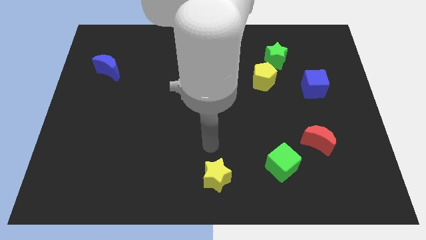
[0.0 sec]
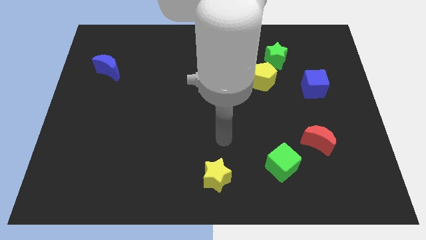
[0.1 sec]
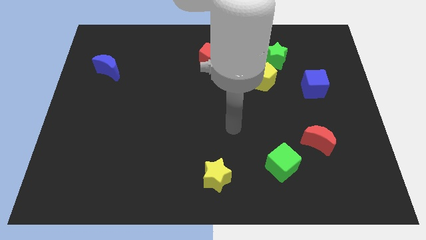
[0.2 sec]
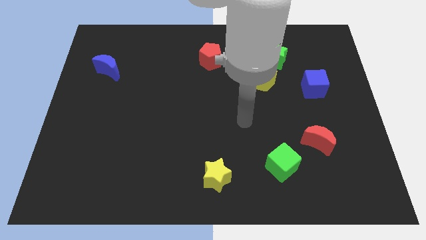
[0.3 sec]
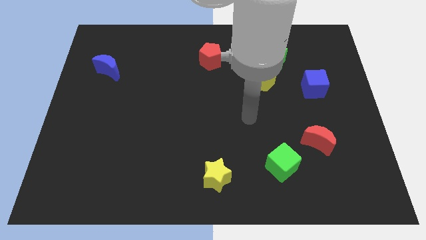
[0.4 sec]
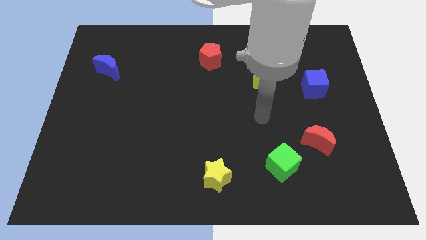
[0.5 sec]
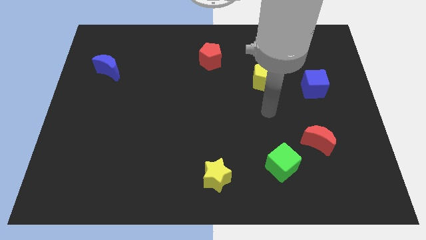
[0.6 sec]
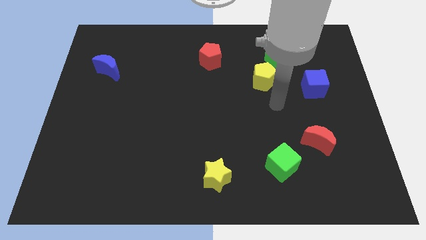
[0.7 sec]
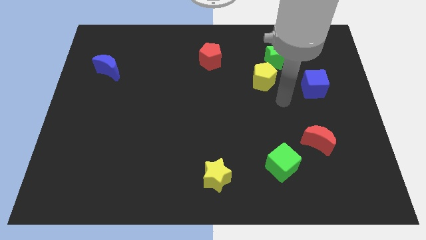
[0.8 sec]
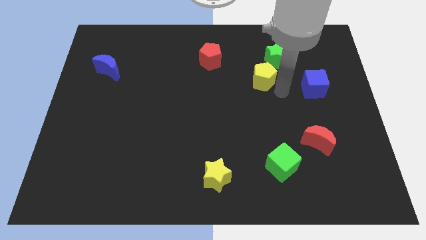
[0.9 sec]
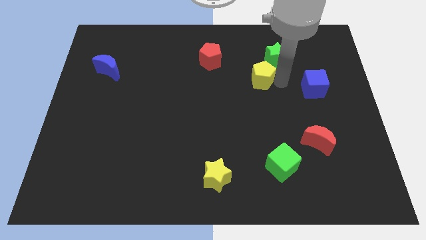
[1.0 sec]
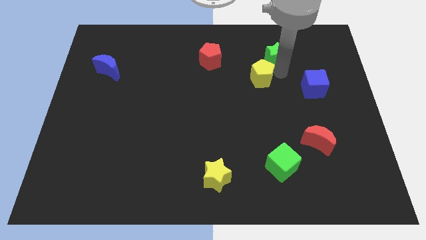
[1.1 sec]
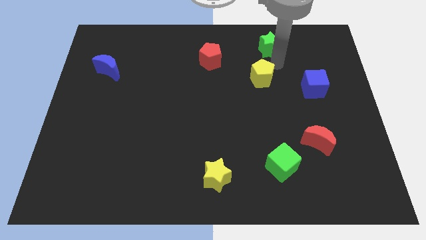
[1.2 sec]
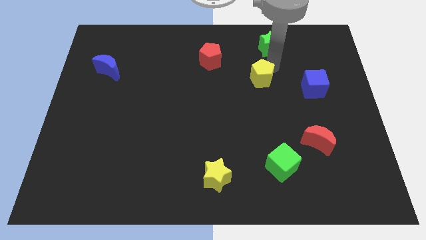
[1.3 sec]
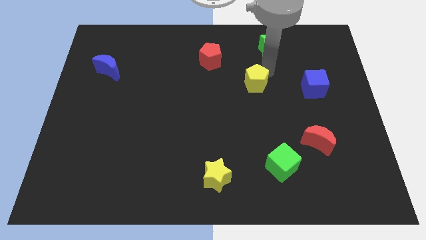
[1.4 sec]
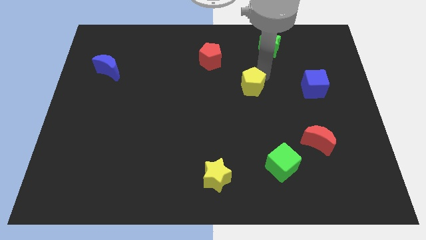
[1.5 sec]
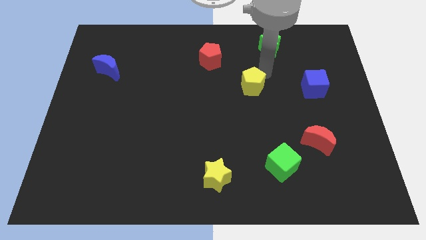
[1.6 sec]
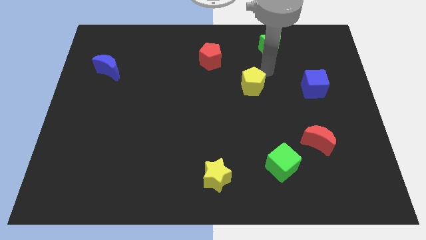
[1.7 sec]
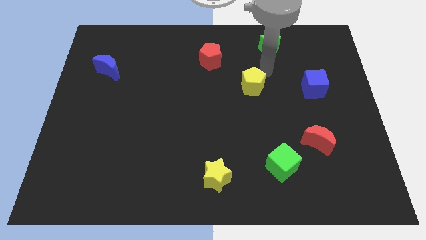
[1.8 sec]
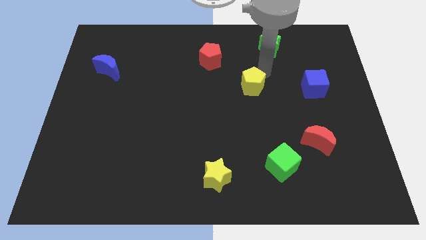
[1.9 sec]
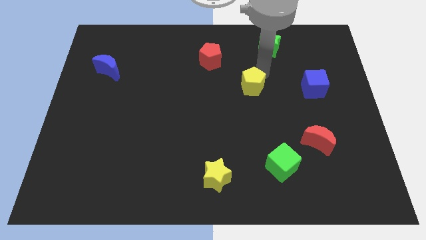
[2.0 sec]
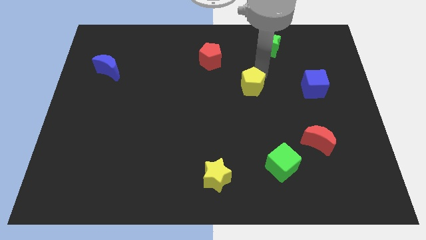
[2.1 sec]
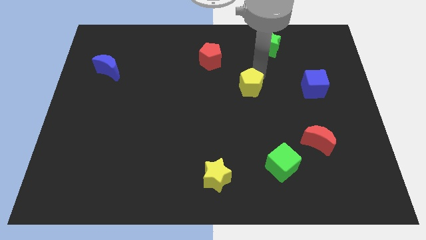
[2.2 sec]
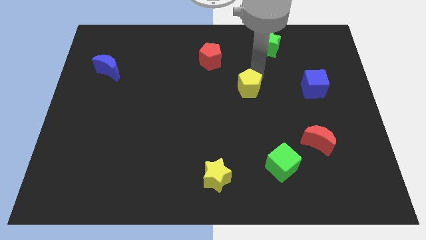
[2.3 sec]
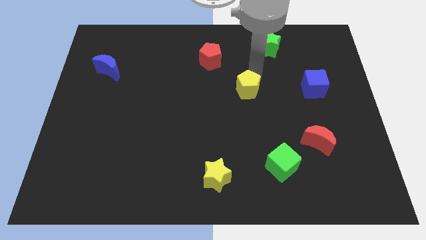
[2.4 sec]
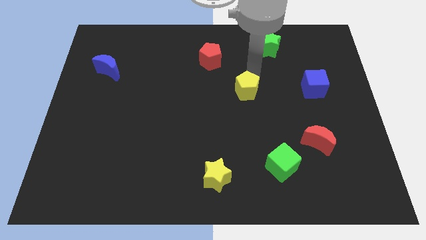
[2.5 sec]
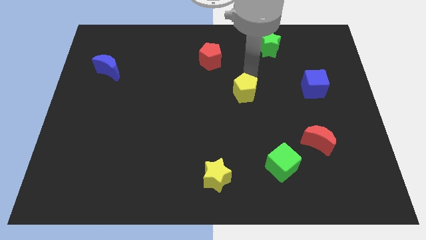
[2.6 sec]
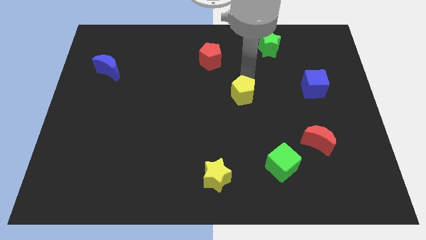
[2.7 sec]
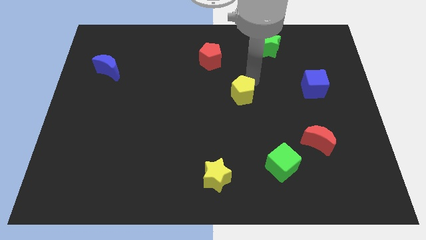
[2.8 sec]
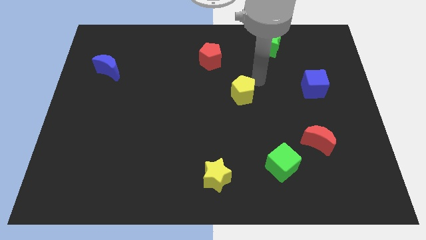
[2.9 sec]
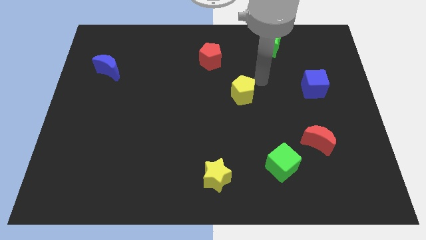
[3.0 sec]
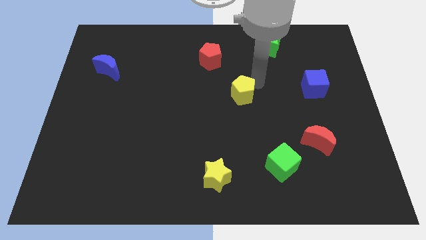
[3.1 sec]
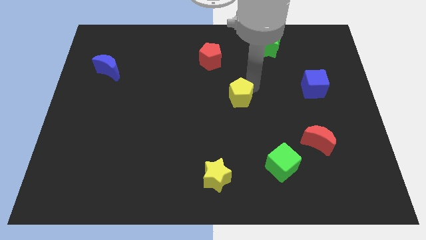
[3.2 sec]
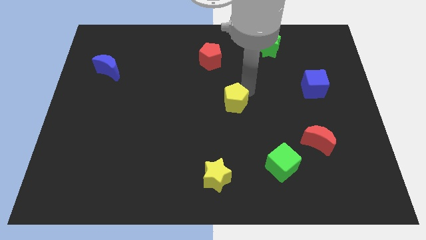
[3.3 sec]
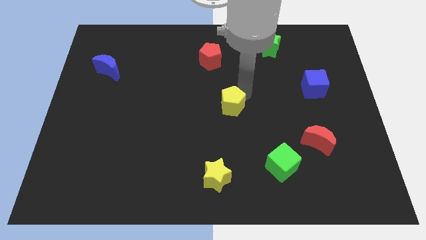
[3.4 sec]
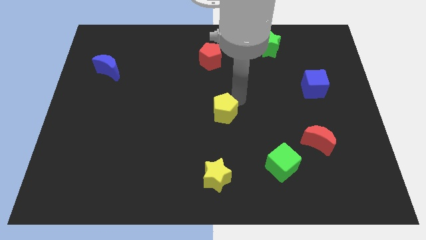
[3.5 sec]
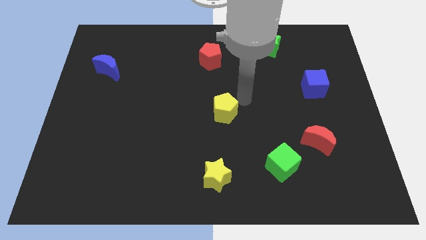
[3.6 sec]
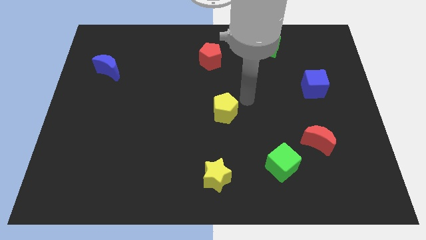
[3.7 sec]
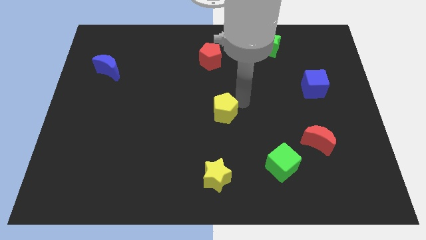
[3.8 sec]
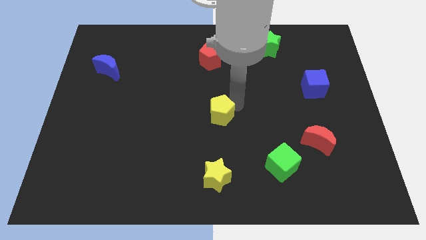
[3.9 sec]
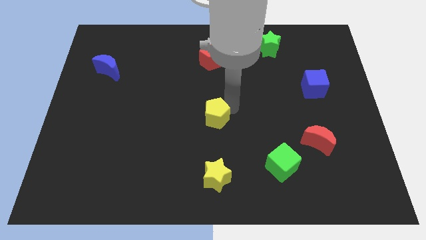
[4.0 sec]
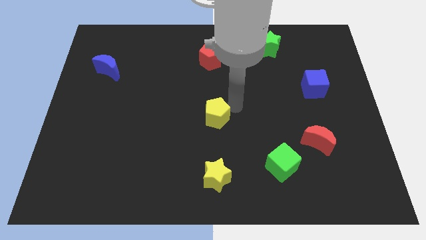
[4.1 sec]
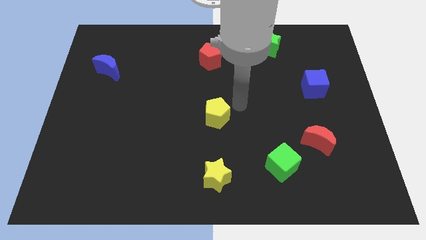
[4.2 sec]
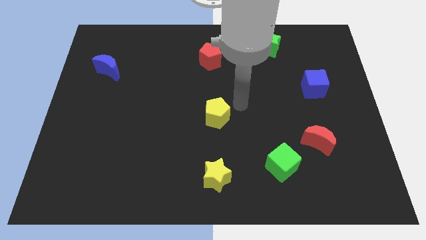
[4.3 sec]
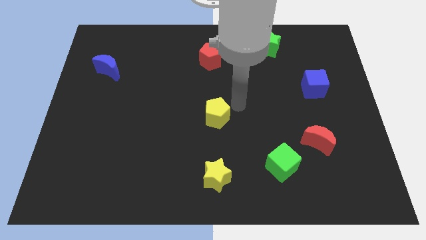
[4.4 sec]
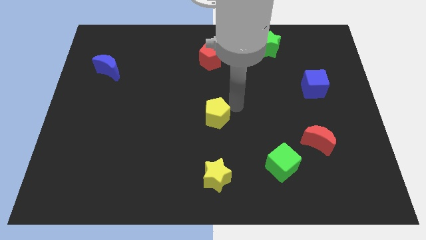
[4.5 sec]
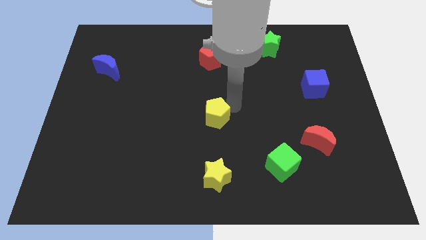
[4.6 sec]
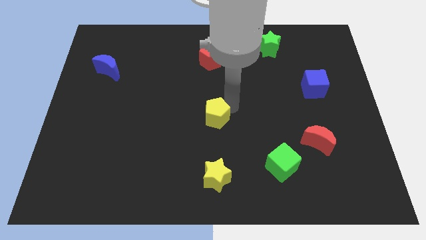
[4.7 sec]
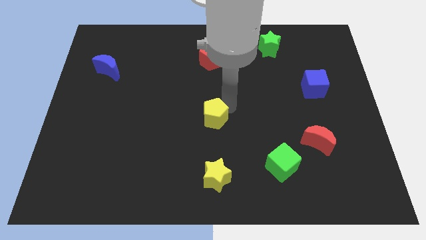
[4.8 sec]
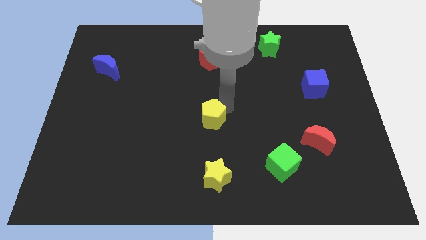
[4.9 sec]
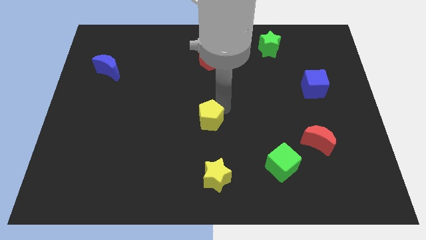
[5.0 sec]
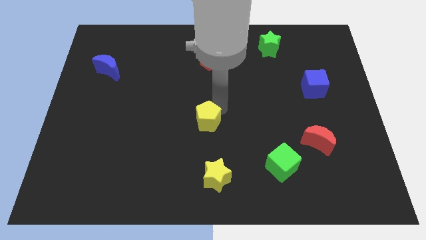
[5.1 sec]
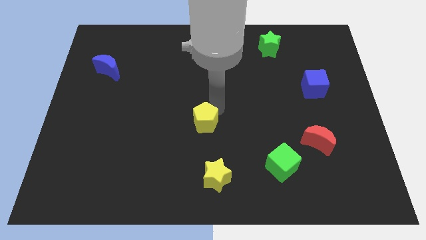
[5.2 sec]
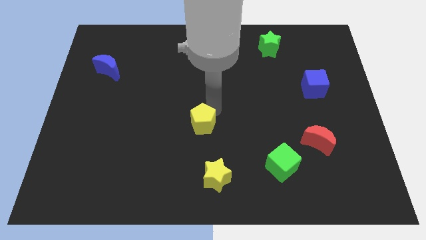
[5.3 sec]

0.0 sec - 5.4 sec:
move the yellow pentagon down and then to the left

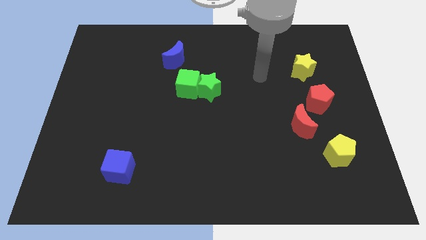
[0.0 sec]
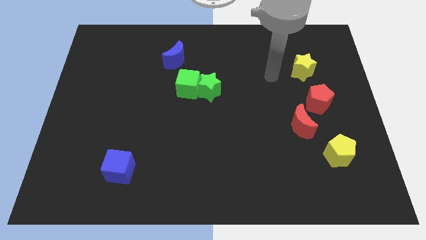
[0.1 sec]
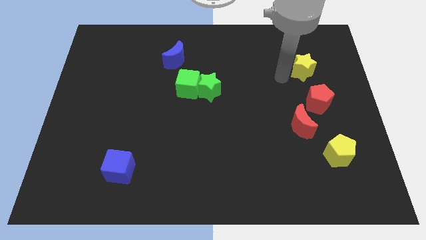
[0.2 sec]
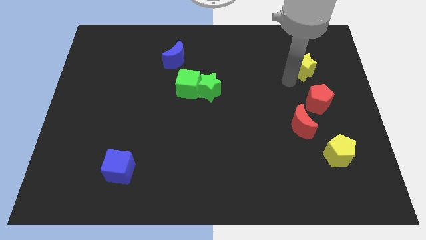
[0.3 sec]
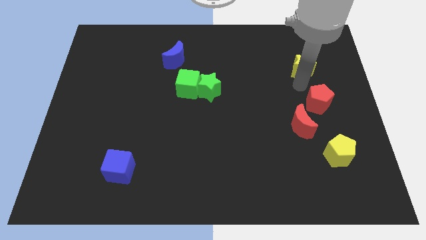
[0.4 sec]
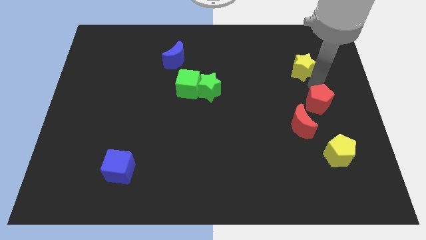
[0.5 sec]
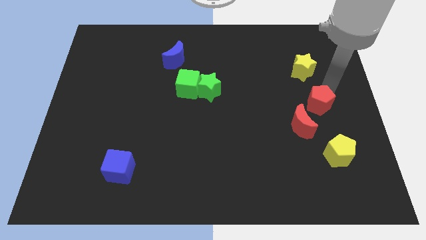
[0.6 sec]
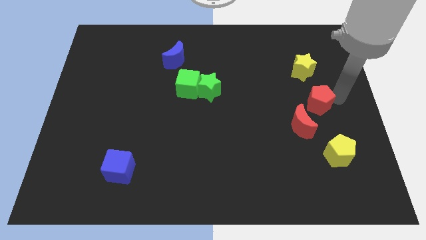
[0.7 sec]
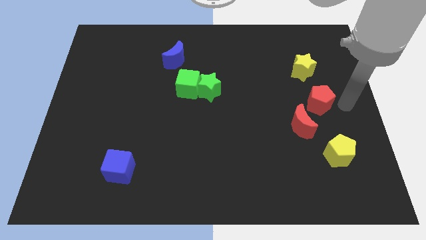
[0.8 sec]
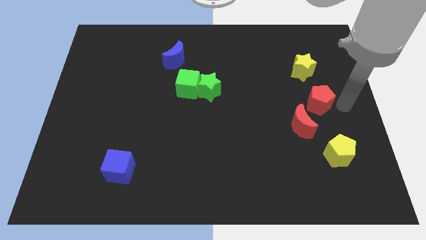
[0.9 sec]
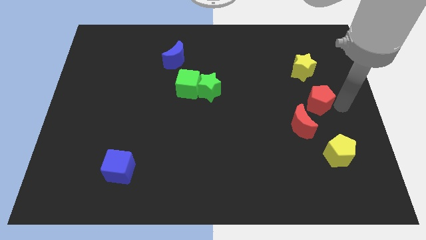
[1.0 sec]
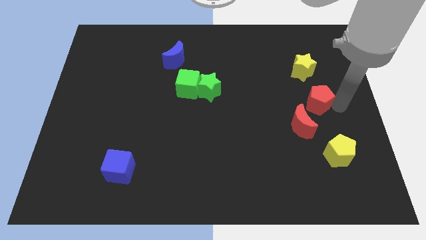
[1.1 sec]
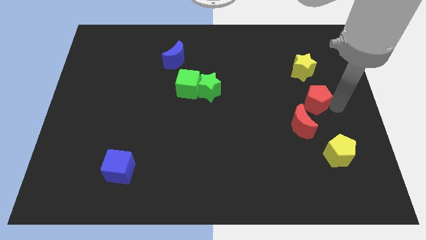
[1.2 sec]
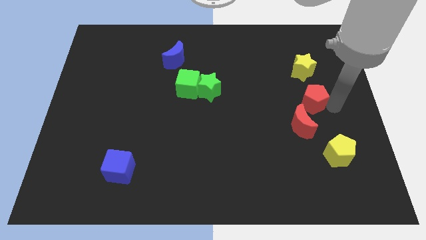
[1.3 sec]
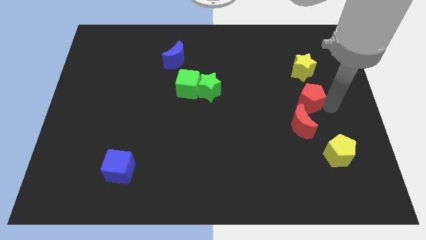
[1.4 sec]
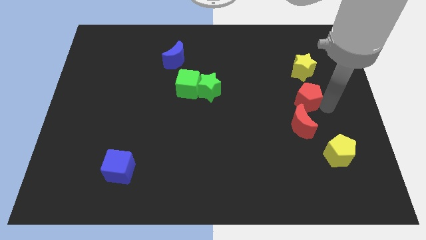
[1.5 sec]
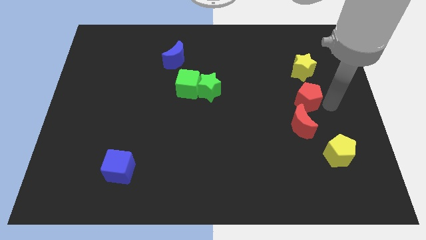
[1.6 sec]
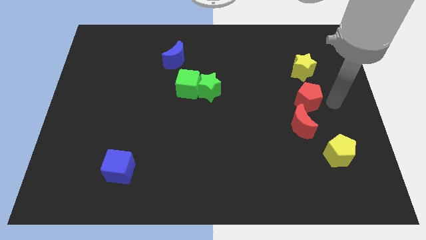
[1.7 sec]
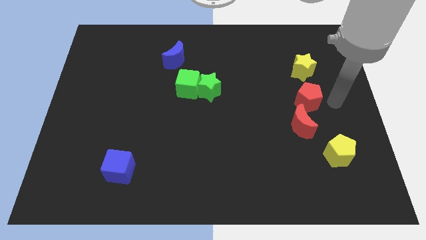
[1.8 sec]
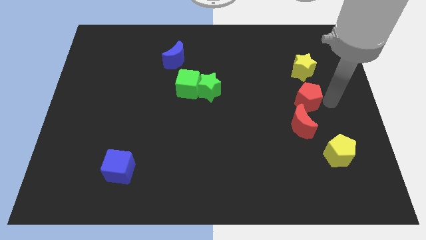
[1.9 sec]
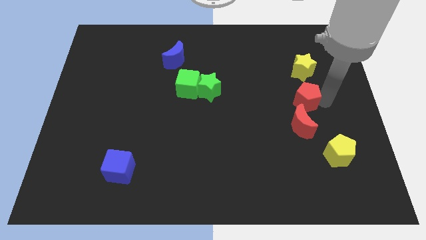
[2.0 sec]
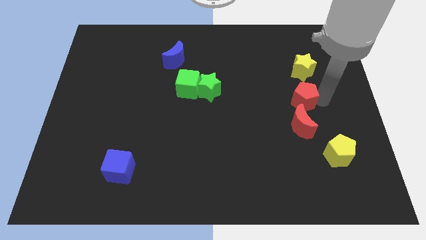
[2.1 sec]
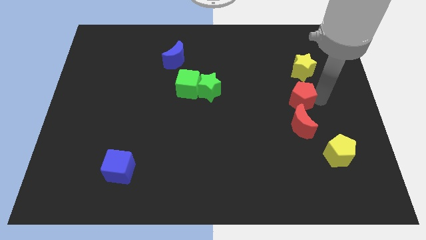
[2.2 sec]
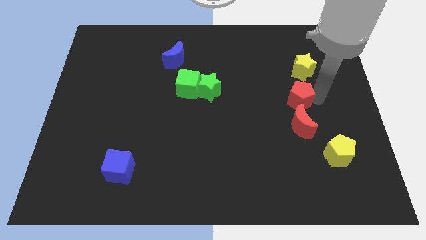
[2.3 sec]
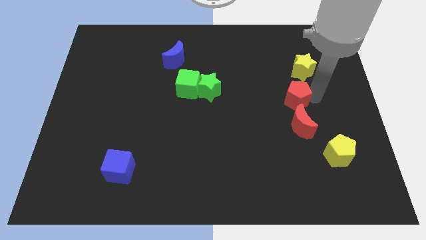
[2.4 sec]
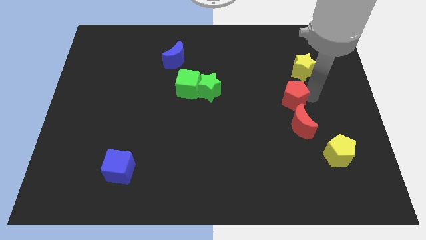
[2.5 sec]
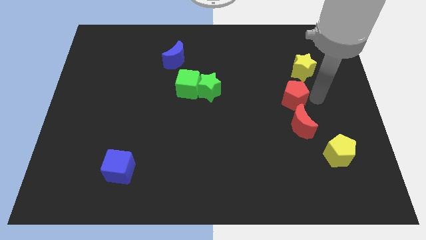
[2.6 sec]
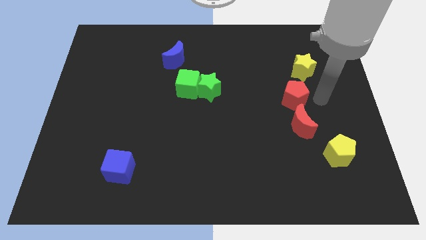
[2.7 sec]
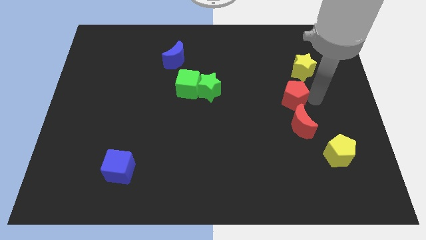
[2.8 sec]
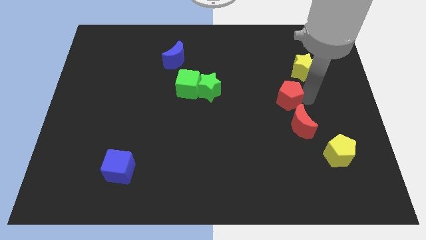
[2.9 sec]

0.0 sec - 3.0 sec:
push the red pentagon a bit to the left
